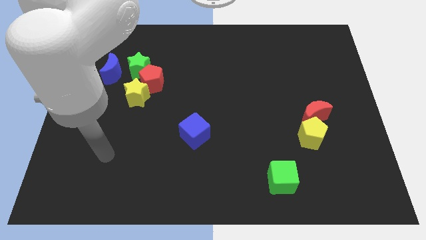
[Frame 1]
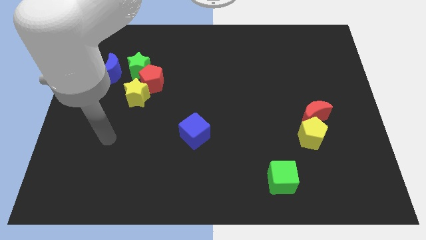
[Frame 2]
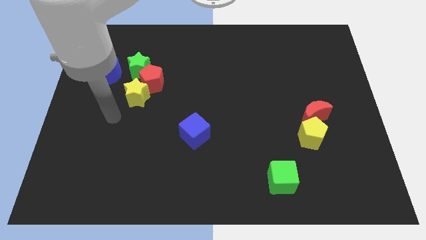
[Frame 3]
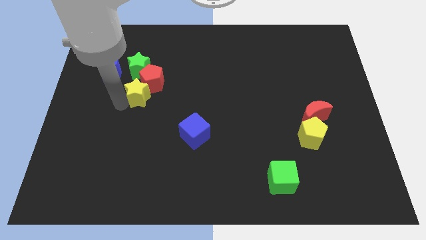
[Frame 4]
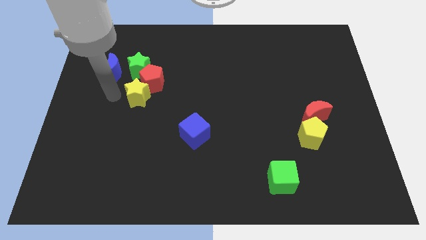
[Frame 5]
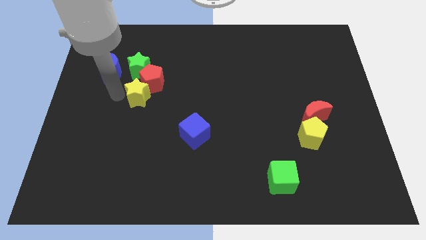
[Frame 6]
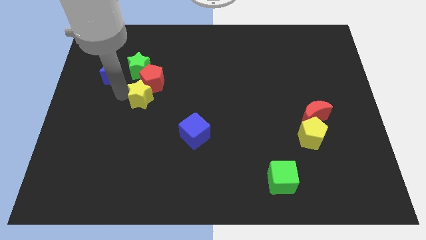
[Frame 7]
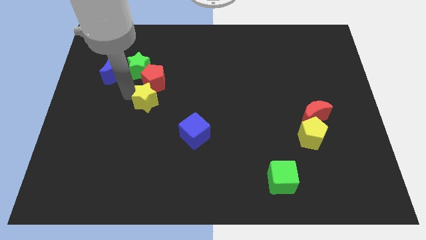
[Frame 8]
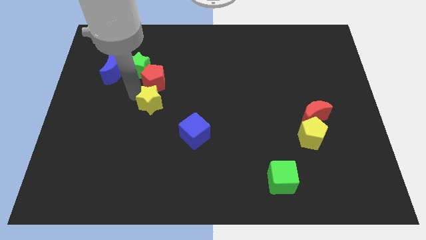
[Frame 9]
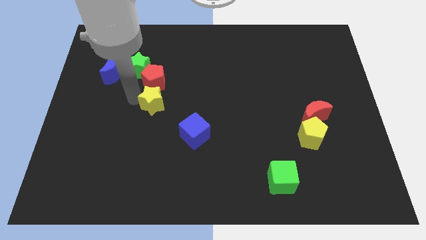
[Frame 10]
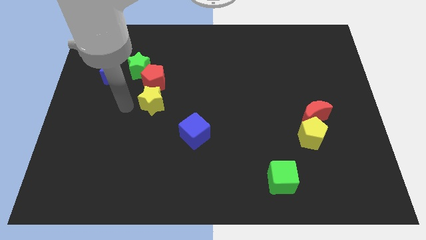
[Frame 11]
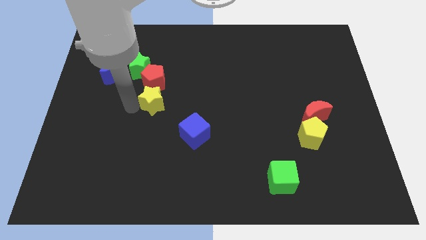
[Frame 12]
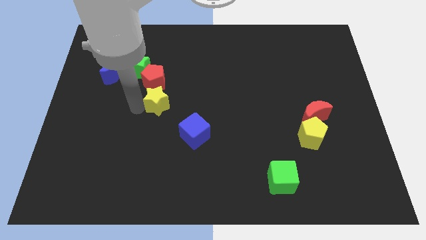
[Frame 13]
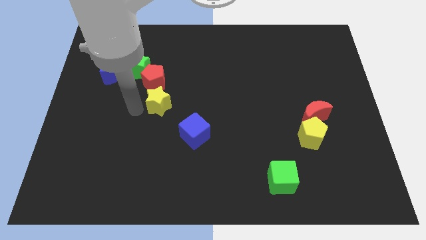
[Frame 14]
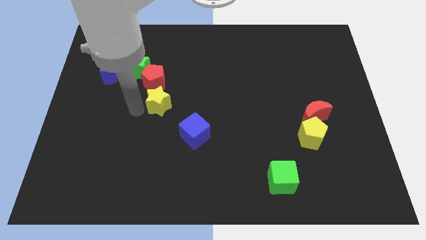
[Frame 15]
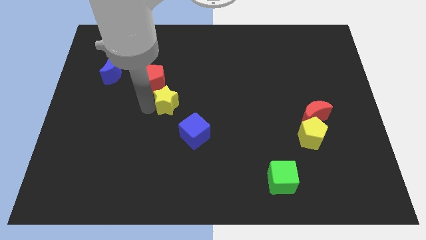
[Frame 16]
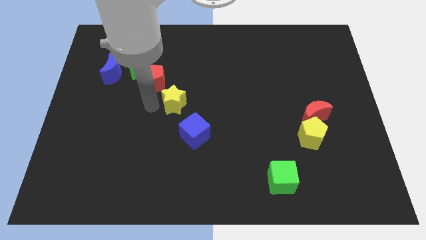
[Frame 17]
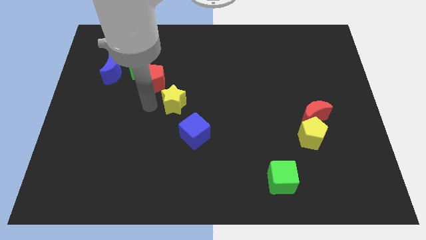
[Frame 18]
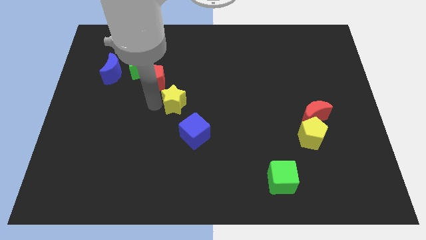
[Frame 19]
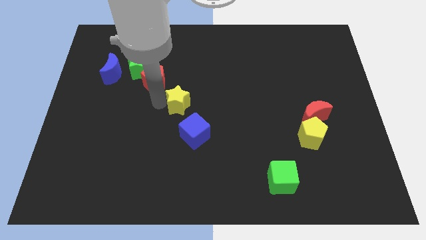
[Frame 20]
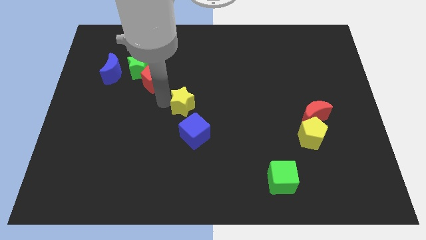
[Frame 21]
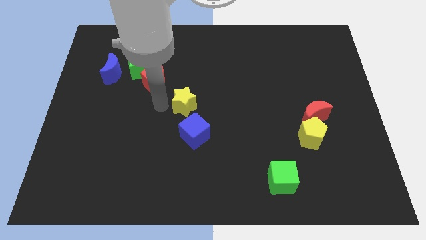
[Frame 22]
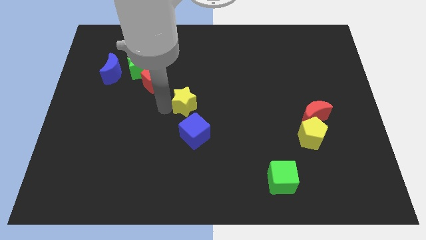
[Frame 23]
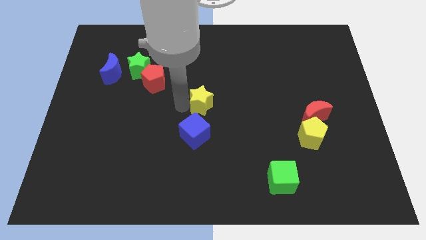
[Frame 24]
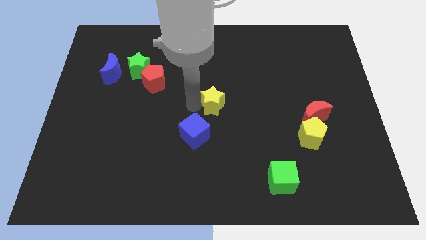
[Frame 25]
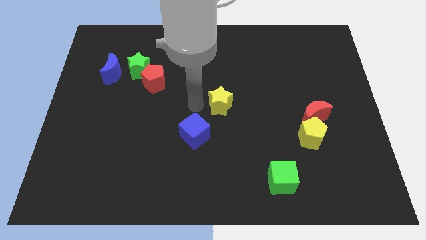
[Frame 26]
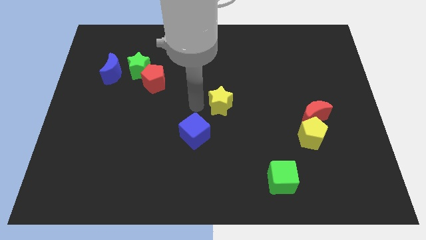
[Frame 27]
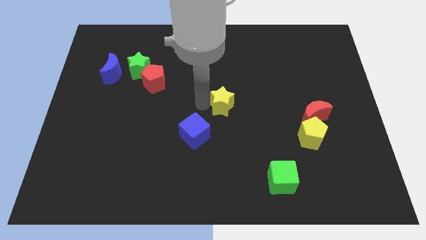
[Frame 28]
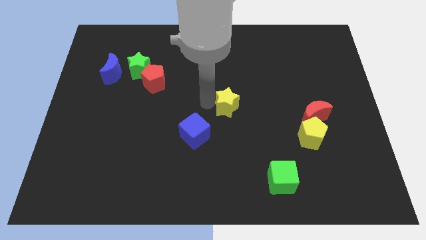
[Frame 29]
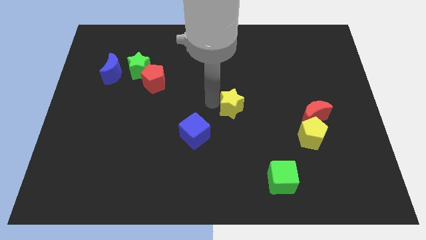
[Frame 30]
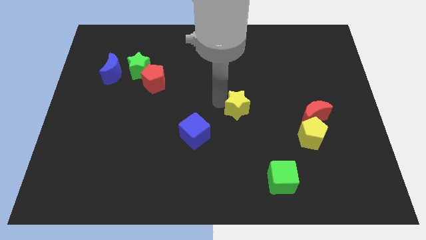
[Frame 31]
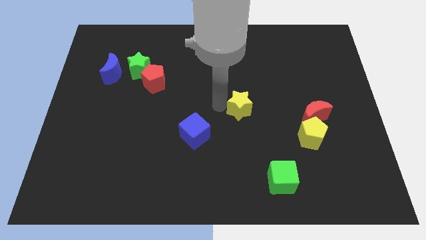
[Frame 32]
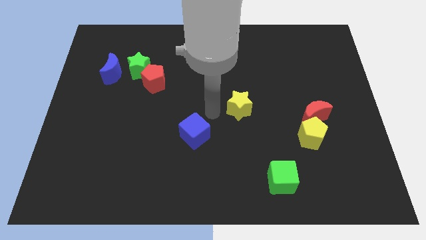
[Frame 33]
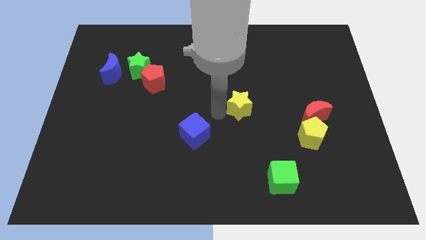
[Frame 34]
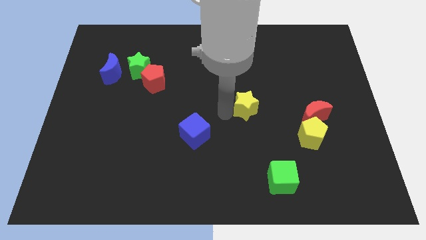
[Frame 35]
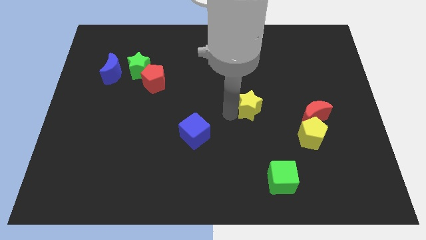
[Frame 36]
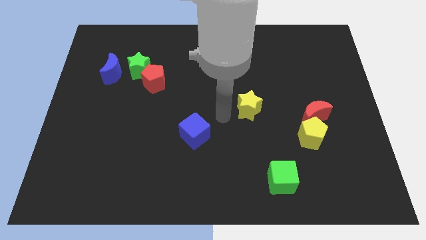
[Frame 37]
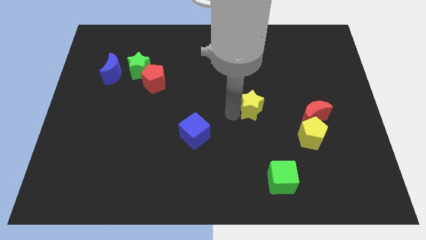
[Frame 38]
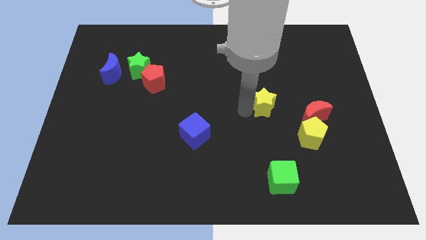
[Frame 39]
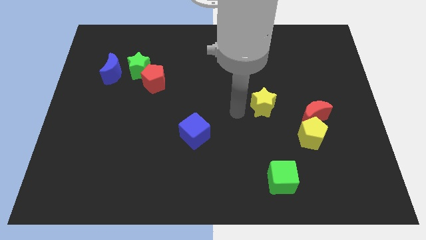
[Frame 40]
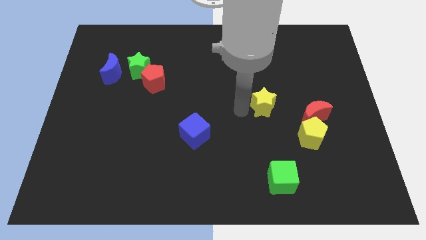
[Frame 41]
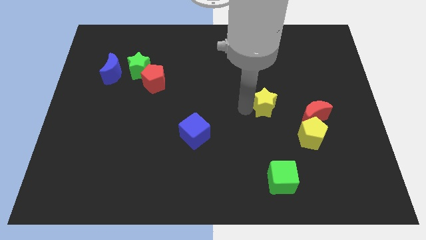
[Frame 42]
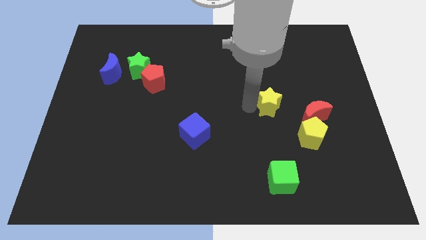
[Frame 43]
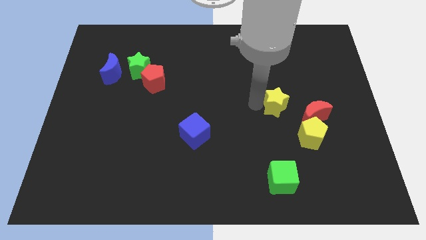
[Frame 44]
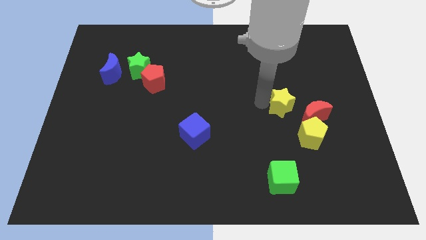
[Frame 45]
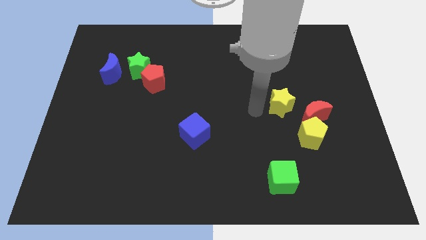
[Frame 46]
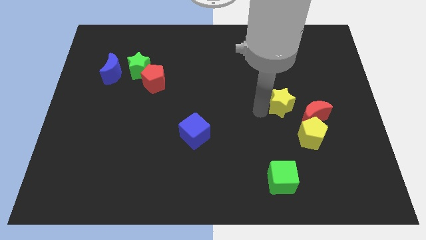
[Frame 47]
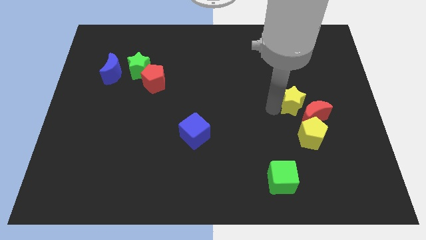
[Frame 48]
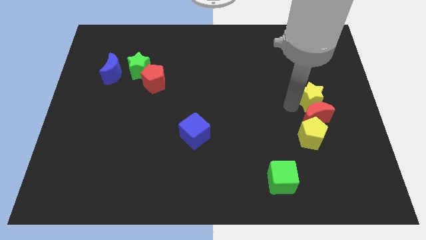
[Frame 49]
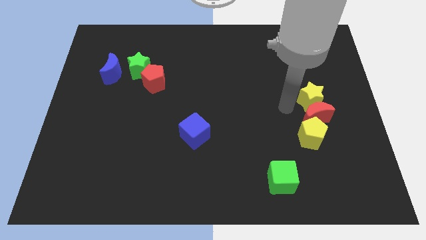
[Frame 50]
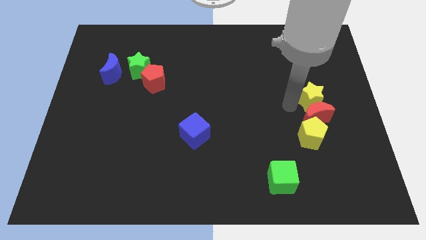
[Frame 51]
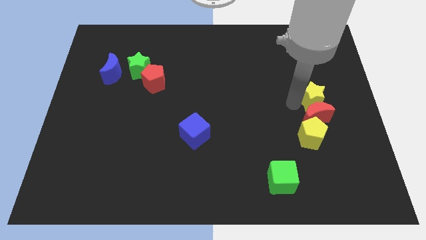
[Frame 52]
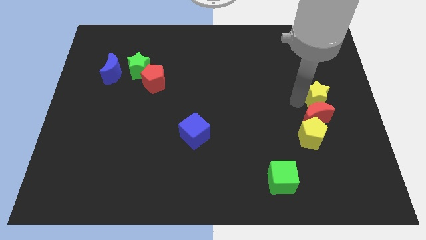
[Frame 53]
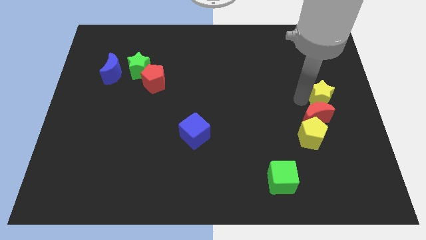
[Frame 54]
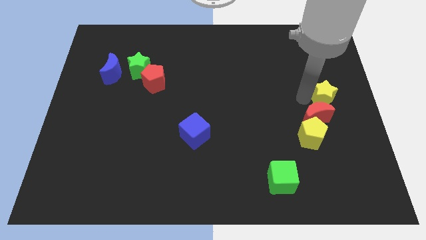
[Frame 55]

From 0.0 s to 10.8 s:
slide the yellow star to the top right of the yellow pentagon

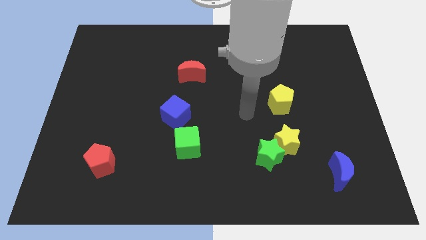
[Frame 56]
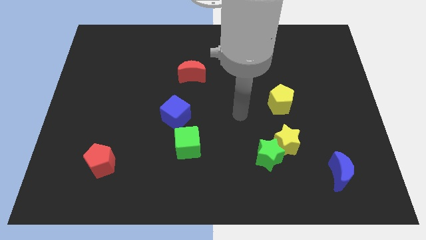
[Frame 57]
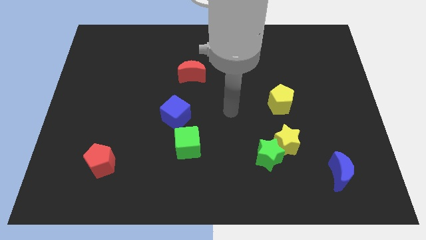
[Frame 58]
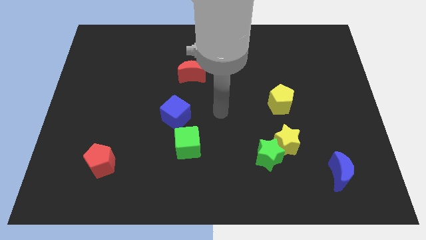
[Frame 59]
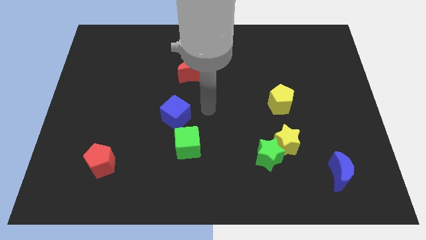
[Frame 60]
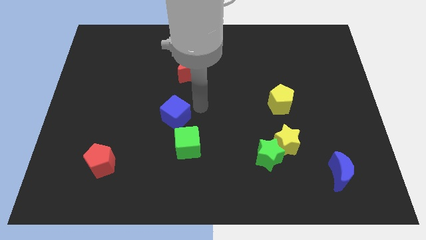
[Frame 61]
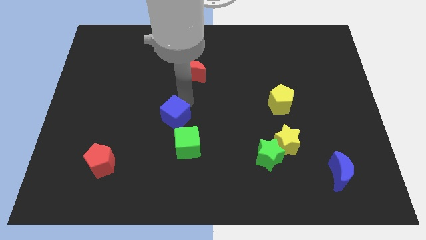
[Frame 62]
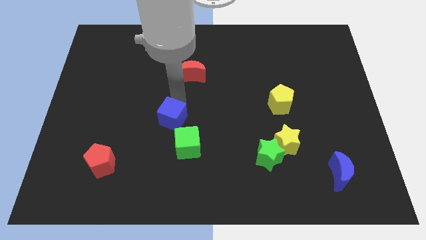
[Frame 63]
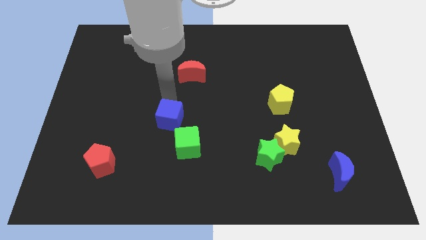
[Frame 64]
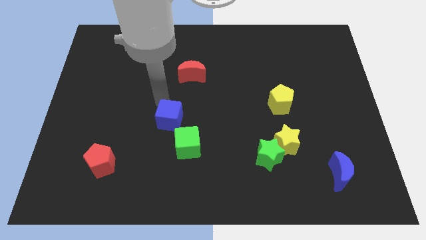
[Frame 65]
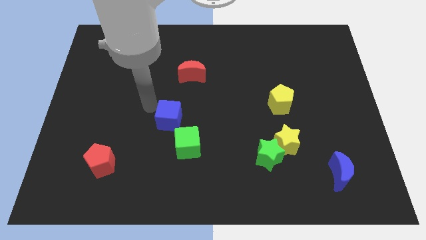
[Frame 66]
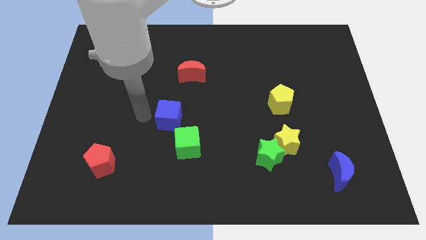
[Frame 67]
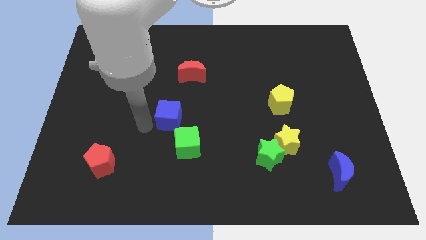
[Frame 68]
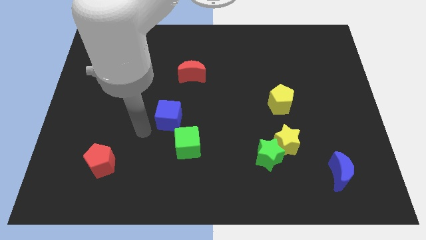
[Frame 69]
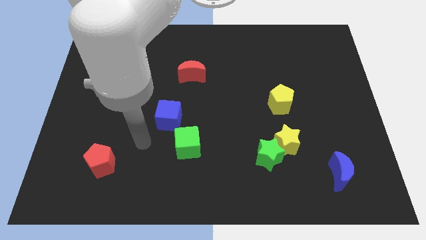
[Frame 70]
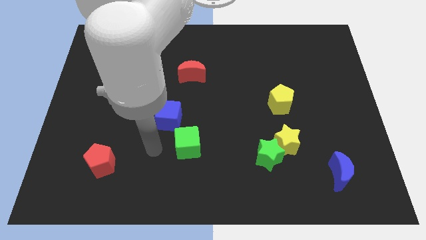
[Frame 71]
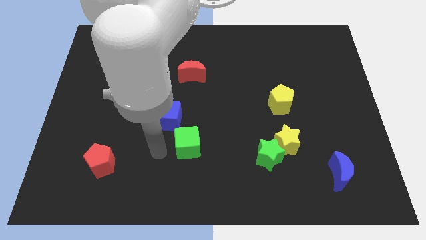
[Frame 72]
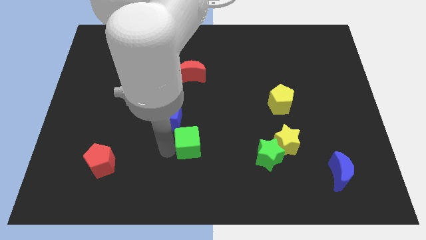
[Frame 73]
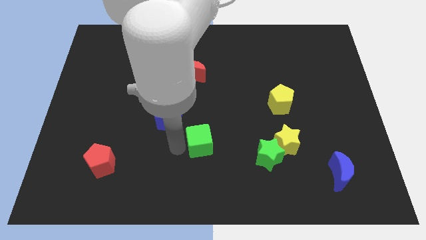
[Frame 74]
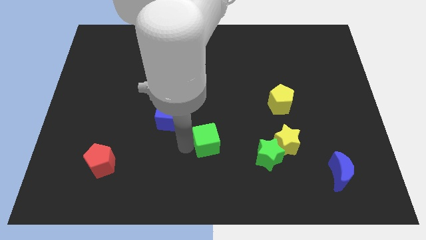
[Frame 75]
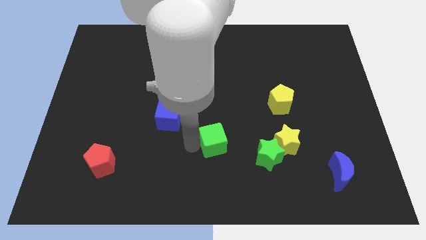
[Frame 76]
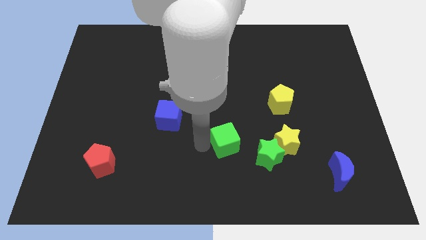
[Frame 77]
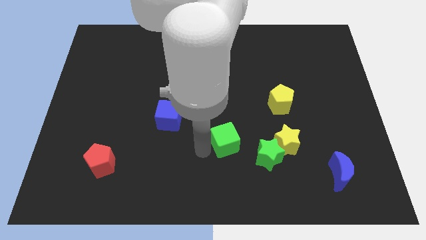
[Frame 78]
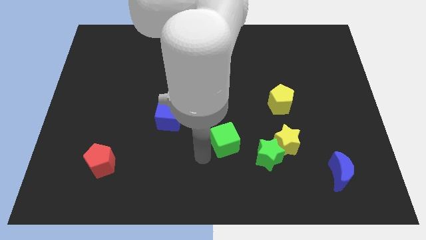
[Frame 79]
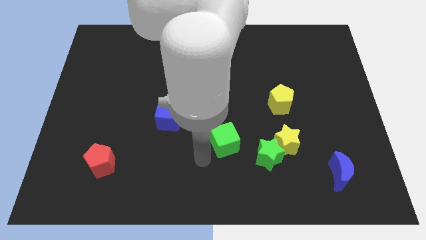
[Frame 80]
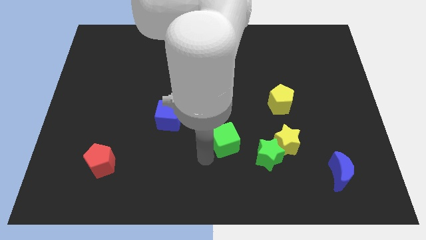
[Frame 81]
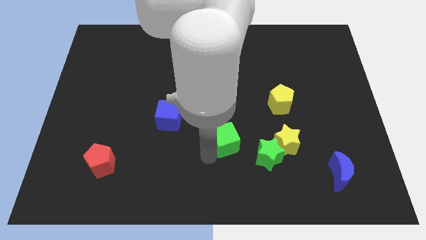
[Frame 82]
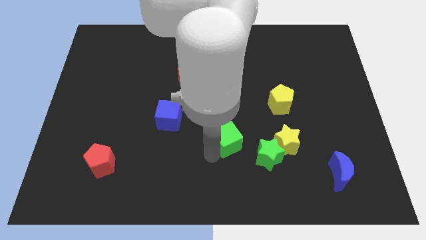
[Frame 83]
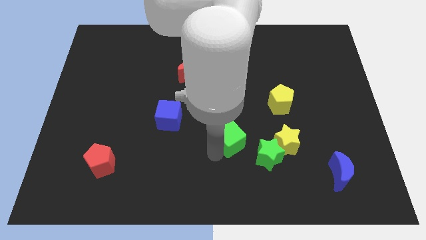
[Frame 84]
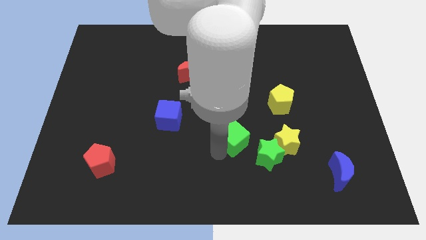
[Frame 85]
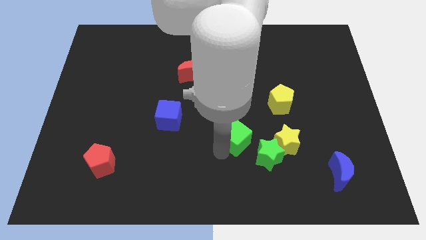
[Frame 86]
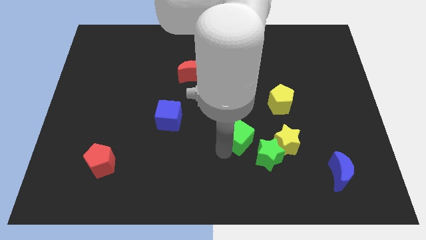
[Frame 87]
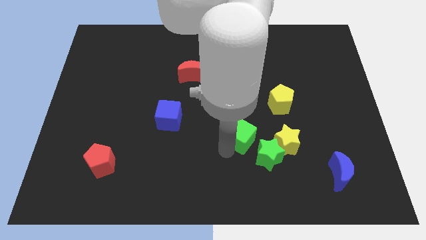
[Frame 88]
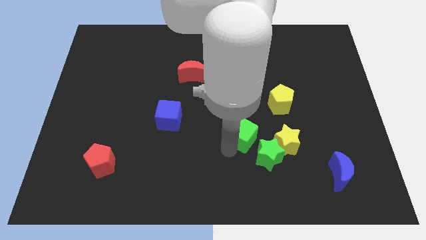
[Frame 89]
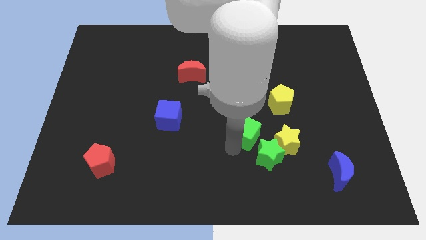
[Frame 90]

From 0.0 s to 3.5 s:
push the green cube to the top side of the green star
